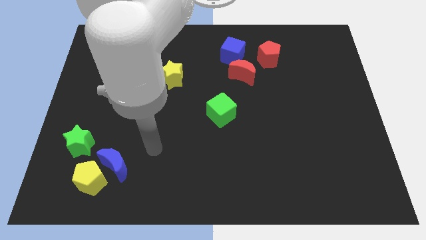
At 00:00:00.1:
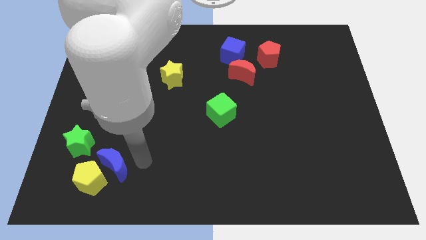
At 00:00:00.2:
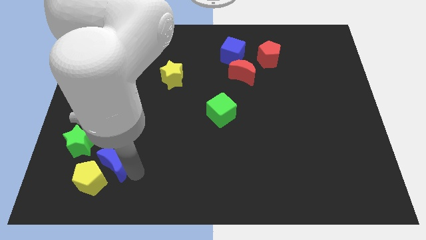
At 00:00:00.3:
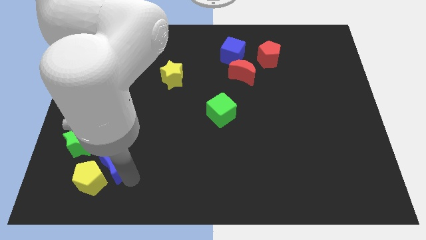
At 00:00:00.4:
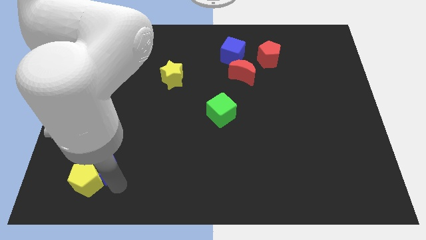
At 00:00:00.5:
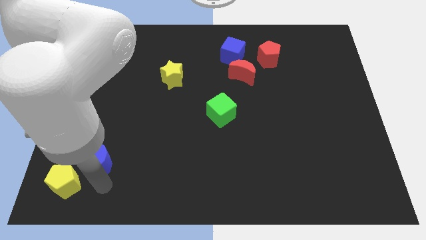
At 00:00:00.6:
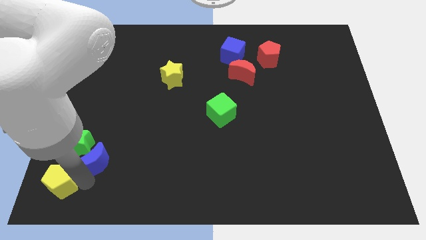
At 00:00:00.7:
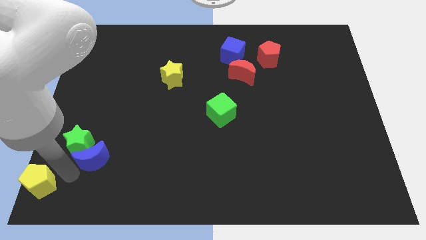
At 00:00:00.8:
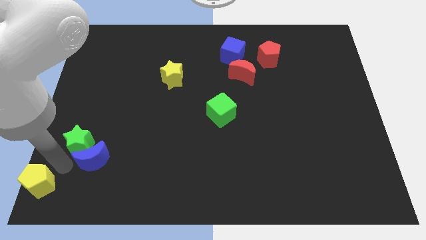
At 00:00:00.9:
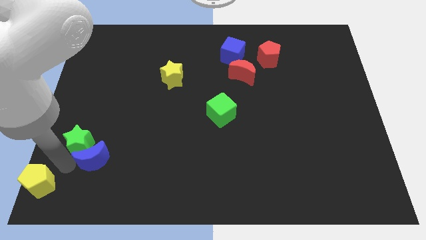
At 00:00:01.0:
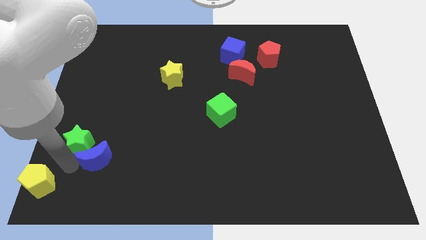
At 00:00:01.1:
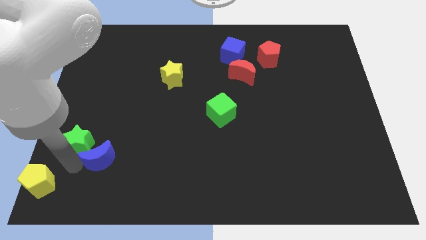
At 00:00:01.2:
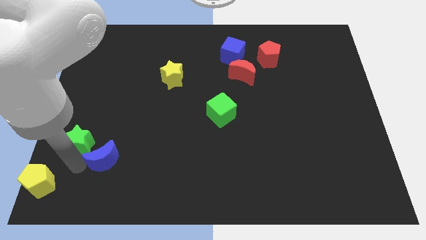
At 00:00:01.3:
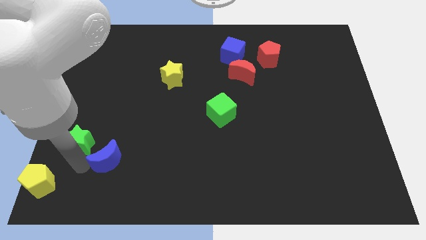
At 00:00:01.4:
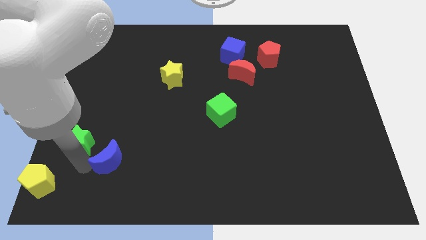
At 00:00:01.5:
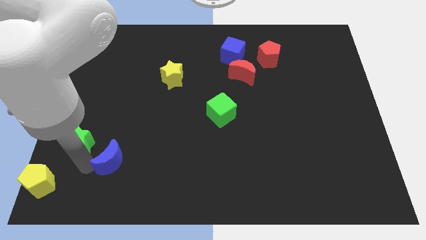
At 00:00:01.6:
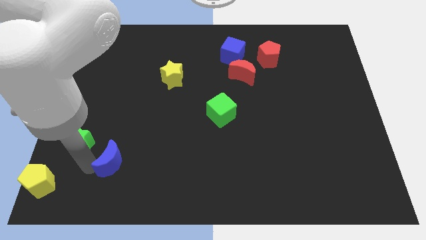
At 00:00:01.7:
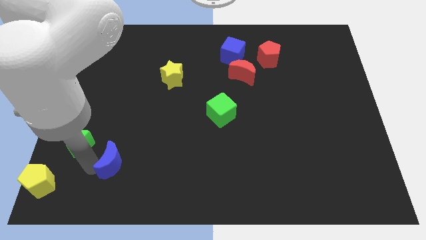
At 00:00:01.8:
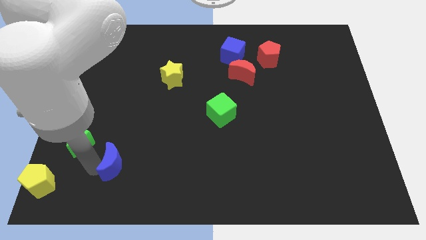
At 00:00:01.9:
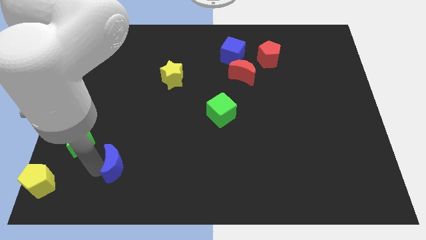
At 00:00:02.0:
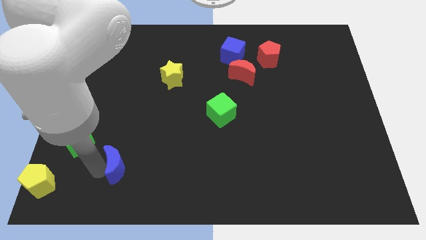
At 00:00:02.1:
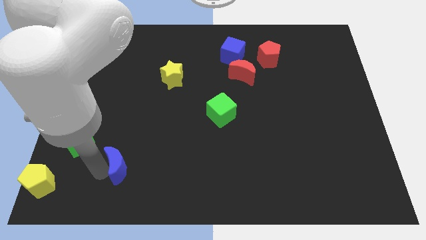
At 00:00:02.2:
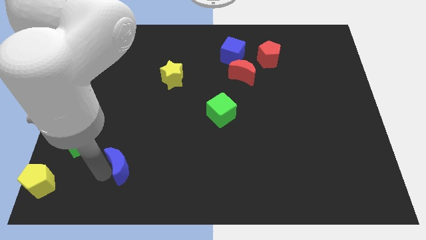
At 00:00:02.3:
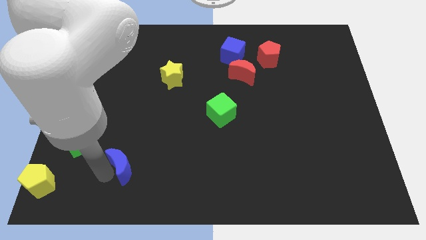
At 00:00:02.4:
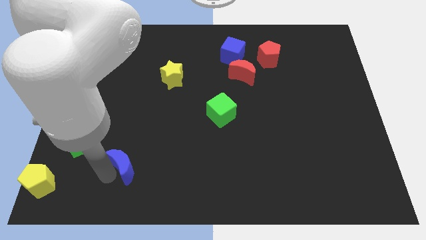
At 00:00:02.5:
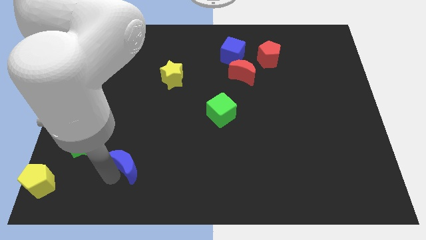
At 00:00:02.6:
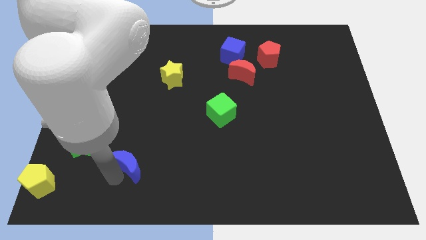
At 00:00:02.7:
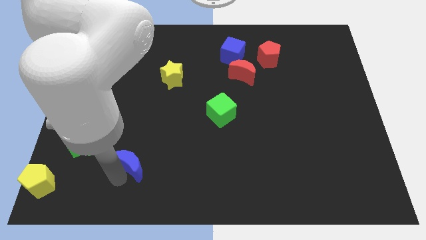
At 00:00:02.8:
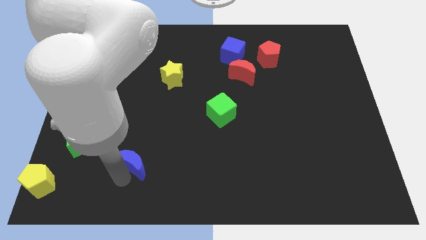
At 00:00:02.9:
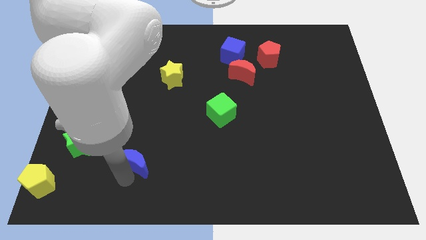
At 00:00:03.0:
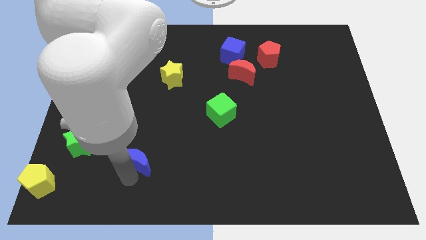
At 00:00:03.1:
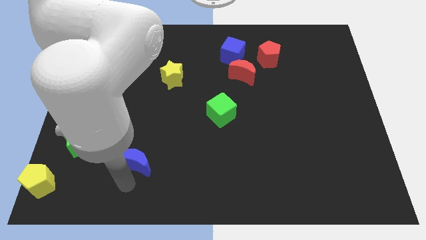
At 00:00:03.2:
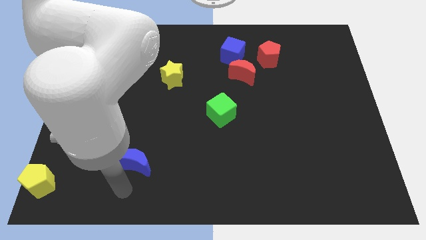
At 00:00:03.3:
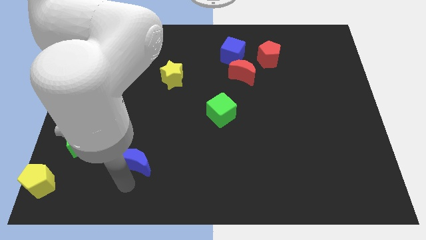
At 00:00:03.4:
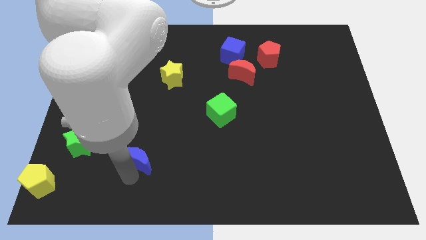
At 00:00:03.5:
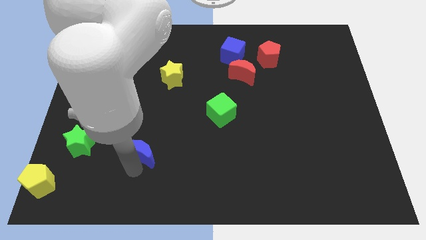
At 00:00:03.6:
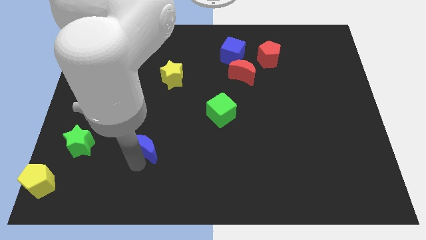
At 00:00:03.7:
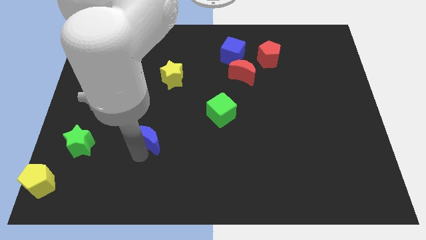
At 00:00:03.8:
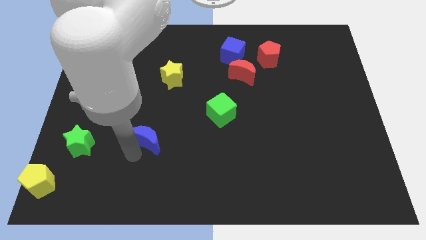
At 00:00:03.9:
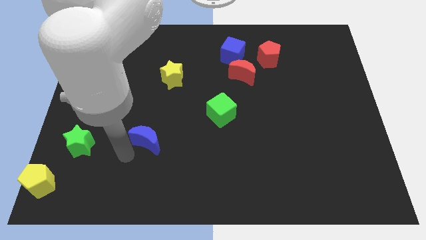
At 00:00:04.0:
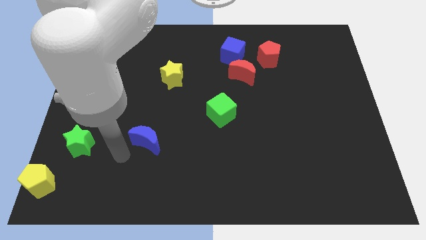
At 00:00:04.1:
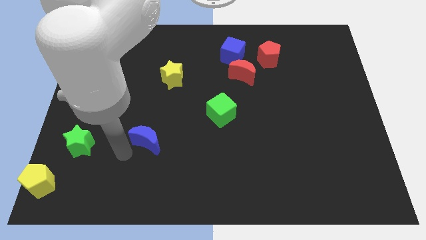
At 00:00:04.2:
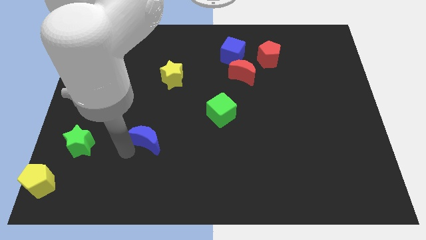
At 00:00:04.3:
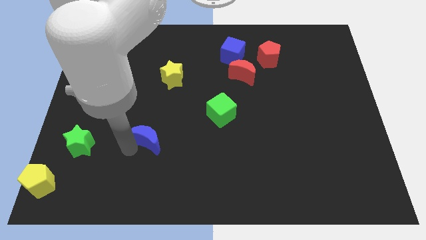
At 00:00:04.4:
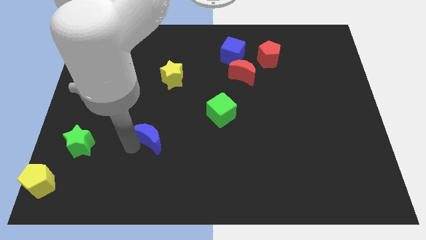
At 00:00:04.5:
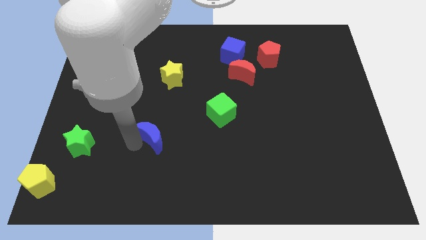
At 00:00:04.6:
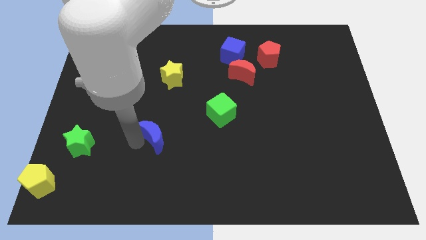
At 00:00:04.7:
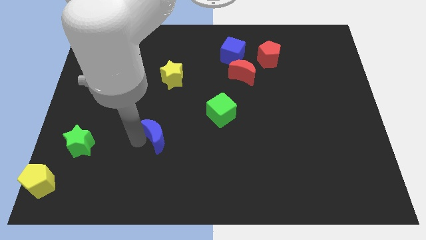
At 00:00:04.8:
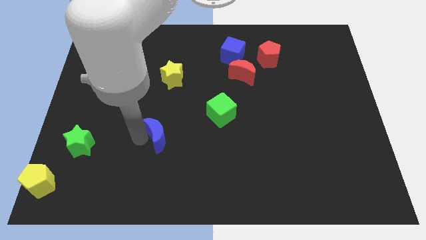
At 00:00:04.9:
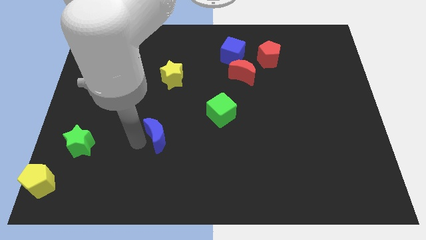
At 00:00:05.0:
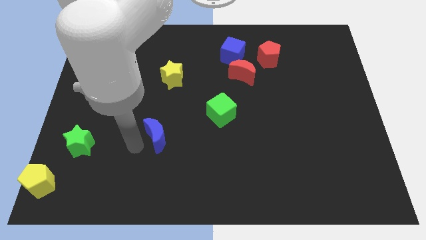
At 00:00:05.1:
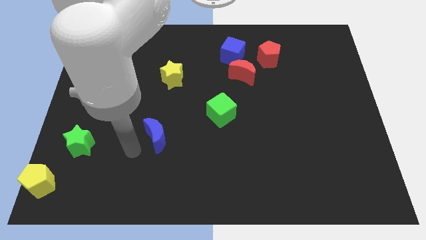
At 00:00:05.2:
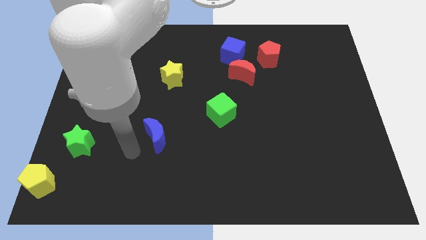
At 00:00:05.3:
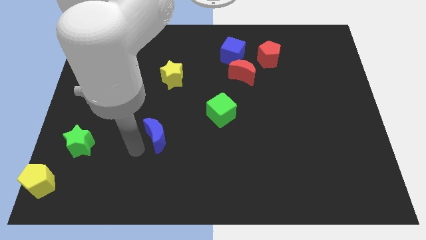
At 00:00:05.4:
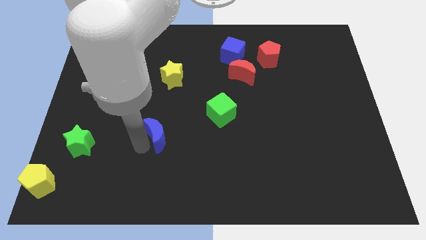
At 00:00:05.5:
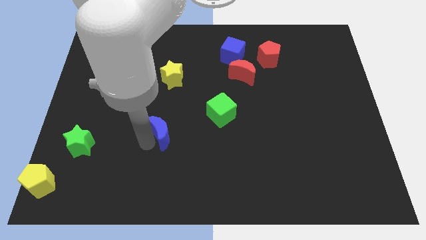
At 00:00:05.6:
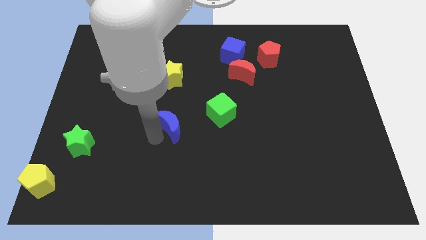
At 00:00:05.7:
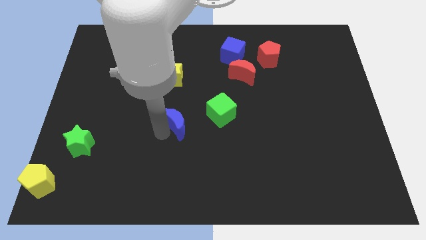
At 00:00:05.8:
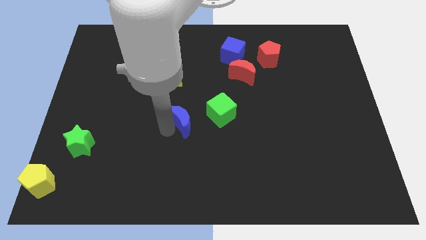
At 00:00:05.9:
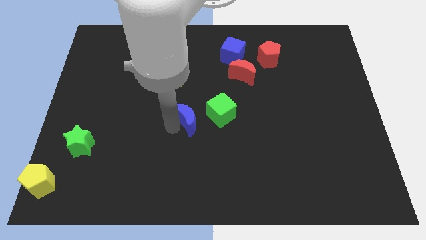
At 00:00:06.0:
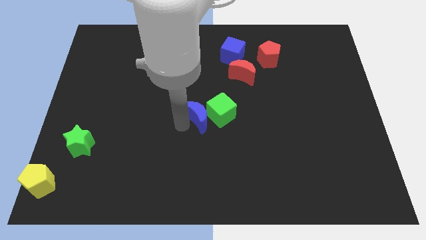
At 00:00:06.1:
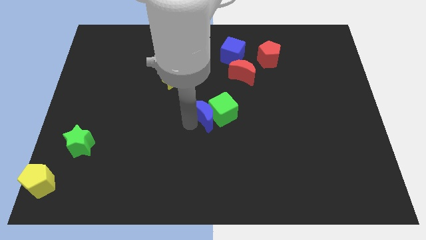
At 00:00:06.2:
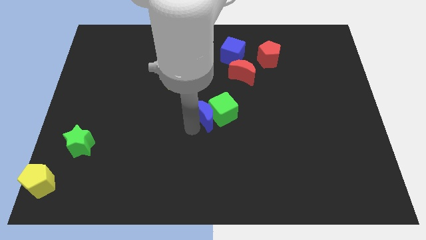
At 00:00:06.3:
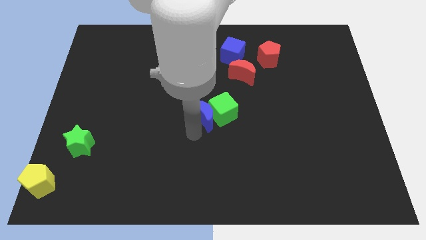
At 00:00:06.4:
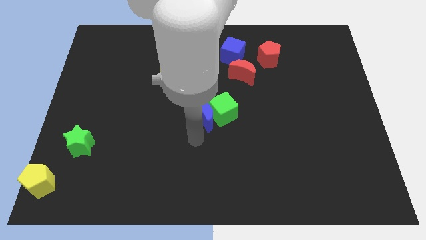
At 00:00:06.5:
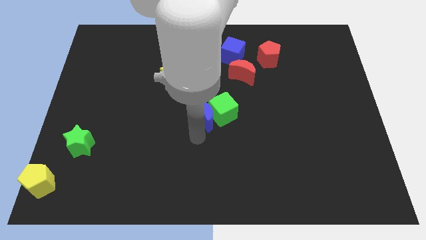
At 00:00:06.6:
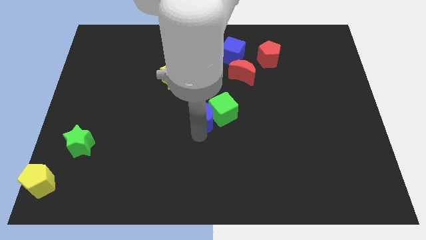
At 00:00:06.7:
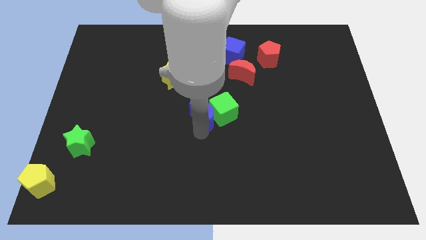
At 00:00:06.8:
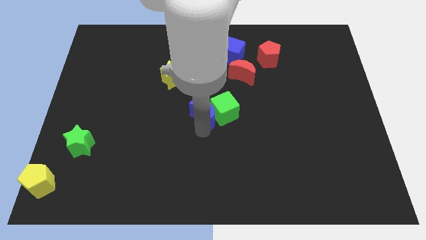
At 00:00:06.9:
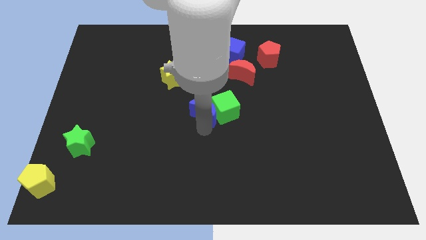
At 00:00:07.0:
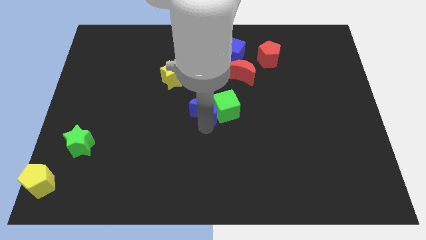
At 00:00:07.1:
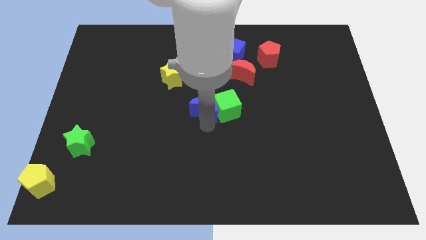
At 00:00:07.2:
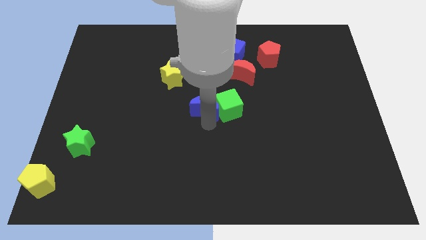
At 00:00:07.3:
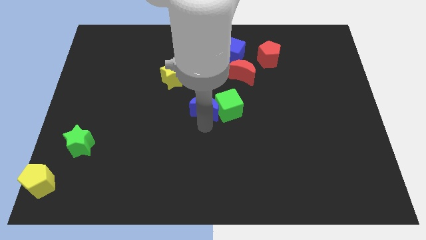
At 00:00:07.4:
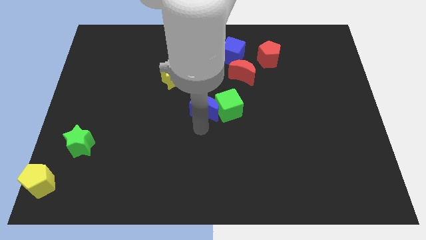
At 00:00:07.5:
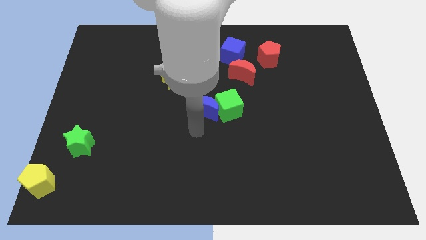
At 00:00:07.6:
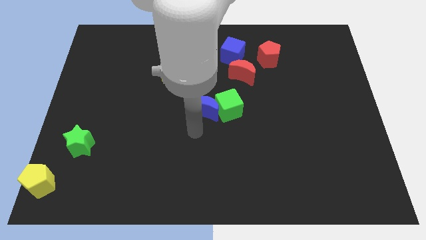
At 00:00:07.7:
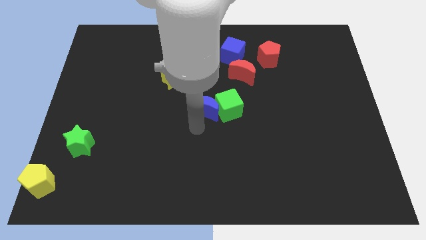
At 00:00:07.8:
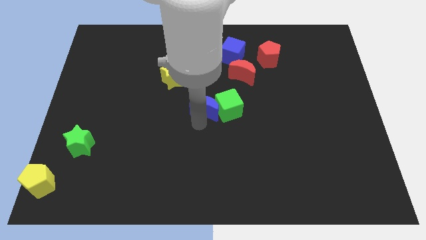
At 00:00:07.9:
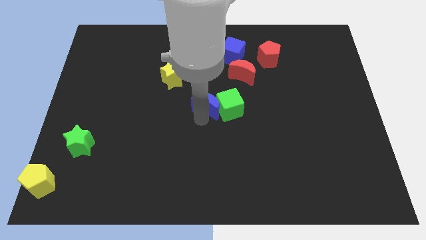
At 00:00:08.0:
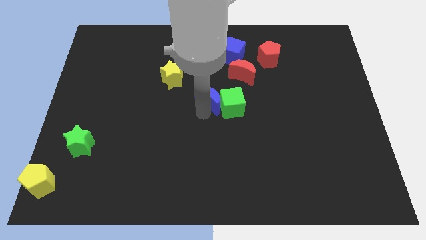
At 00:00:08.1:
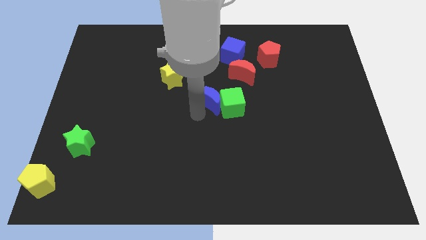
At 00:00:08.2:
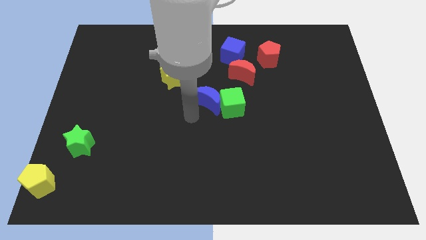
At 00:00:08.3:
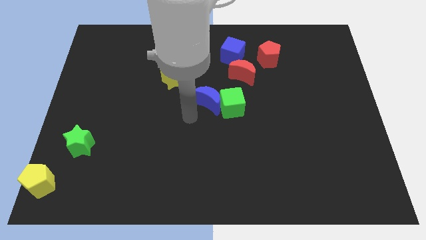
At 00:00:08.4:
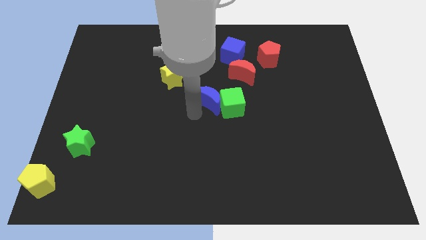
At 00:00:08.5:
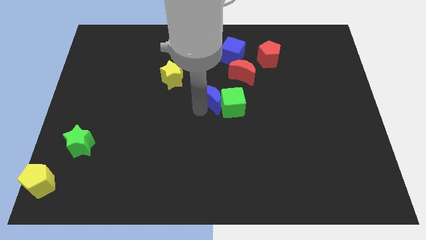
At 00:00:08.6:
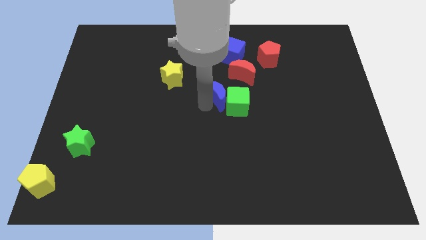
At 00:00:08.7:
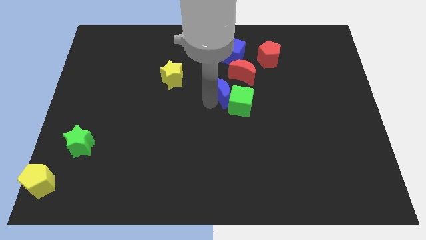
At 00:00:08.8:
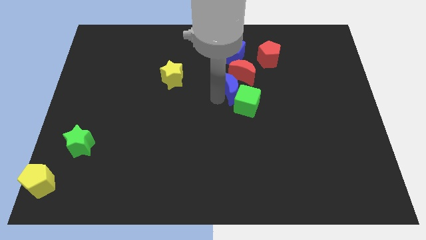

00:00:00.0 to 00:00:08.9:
slide the blue moon towards the red moon
